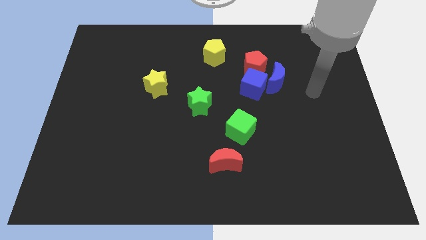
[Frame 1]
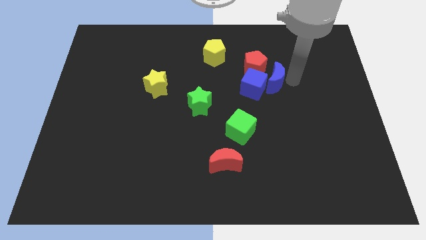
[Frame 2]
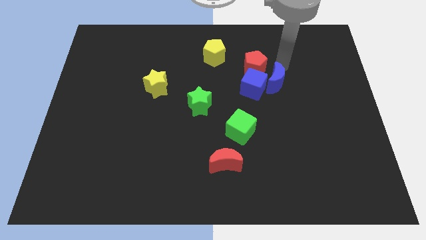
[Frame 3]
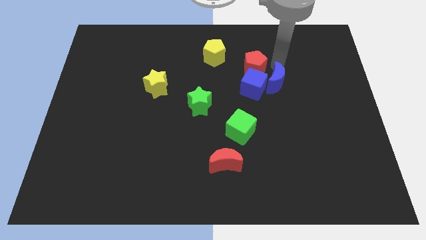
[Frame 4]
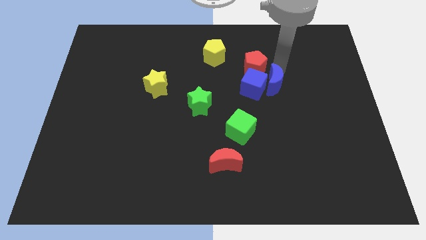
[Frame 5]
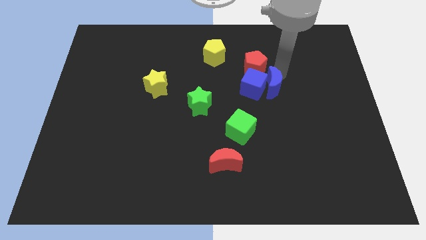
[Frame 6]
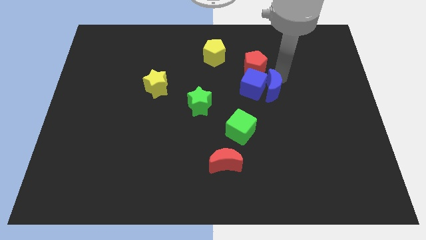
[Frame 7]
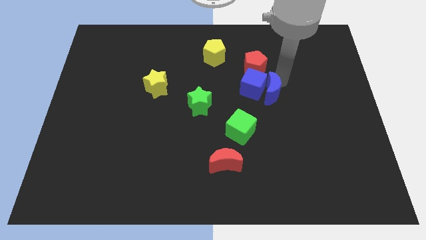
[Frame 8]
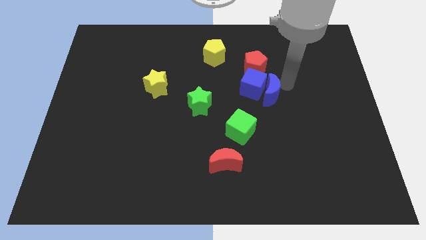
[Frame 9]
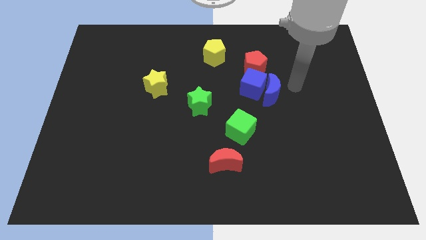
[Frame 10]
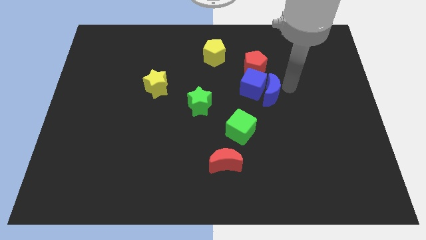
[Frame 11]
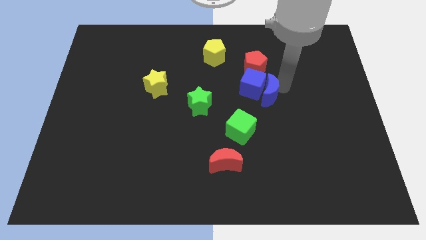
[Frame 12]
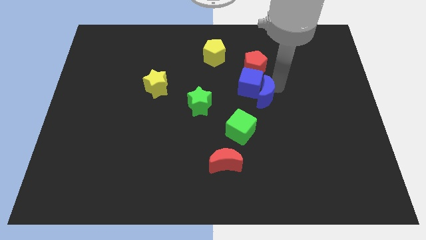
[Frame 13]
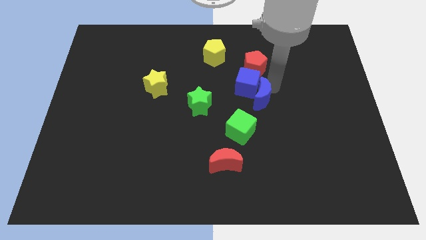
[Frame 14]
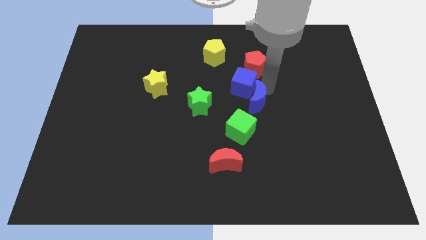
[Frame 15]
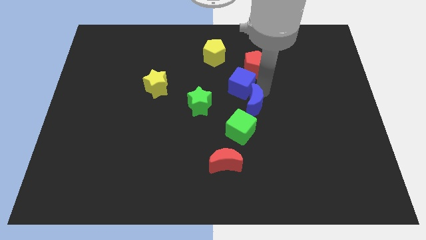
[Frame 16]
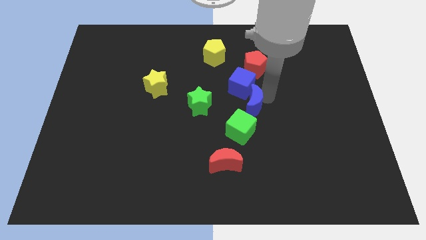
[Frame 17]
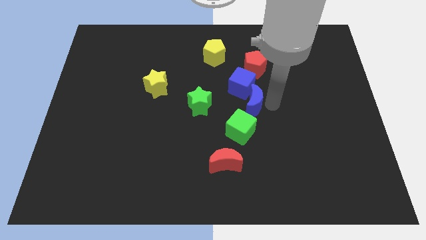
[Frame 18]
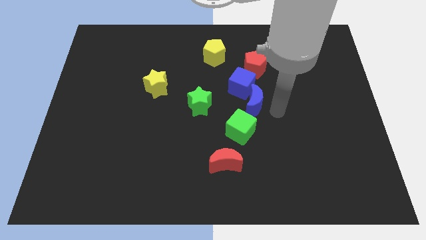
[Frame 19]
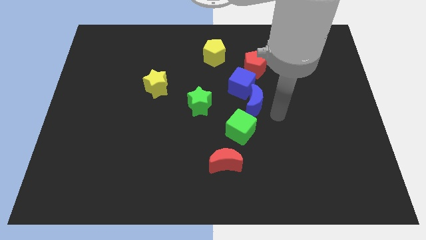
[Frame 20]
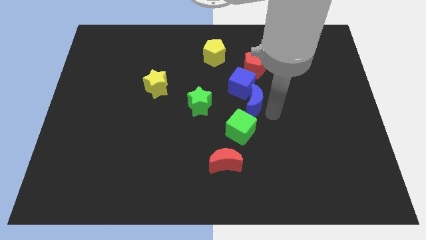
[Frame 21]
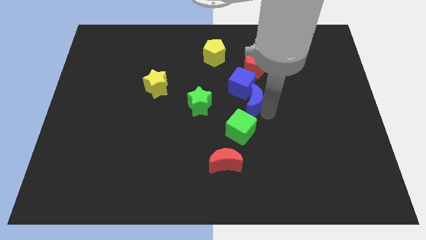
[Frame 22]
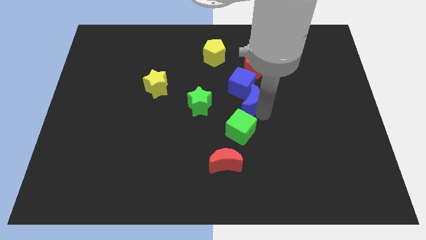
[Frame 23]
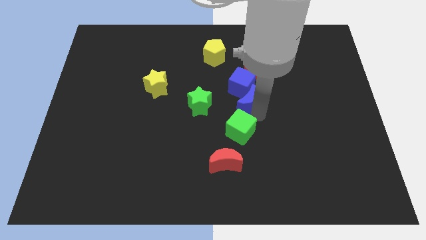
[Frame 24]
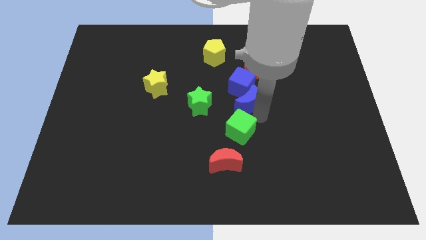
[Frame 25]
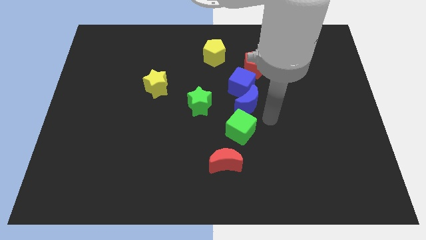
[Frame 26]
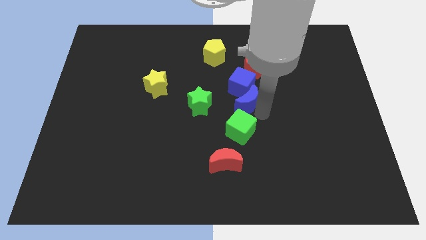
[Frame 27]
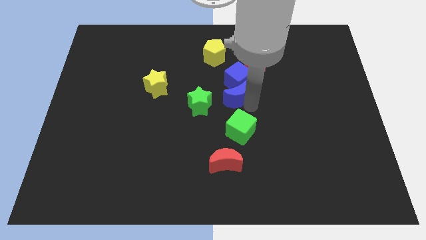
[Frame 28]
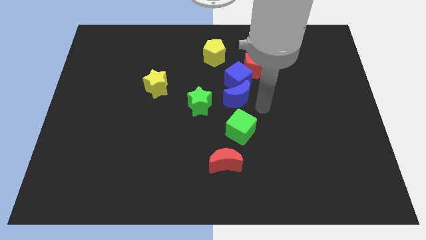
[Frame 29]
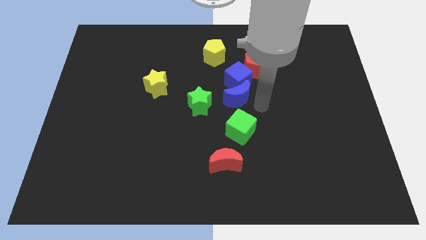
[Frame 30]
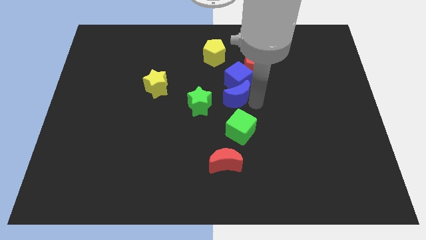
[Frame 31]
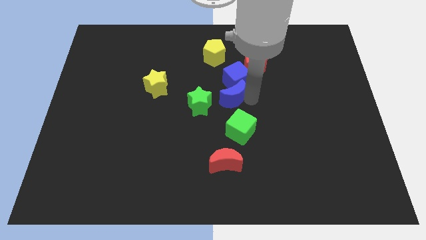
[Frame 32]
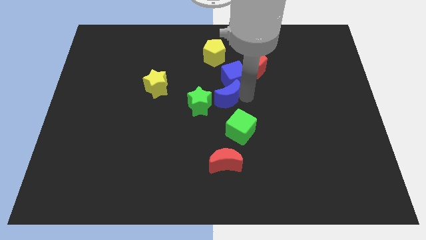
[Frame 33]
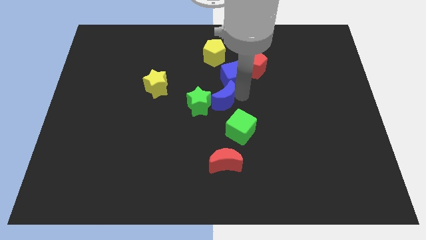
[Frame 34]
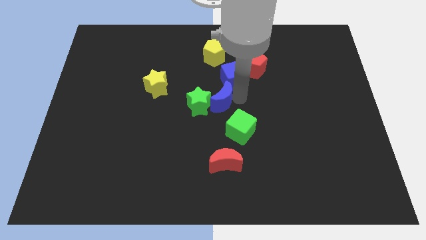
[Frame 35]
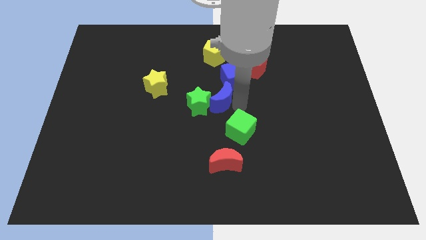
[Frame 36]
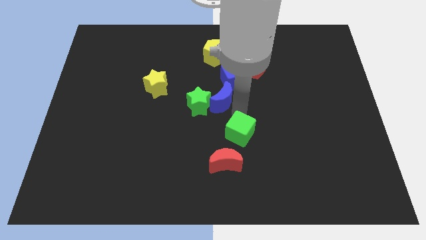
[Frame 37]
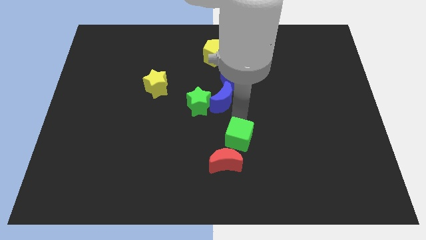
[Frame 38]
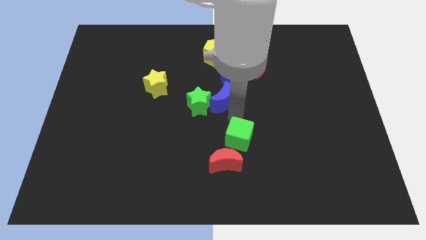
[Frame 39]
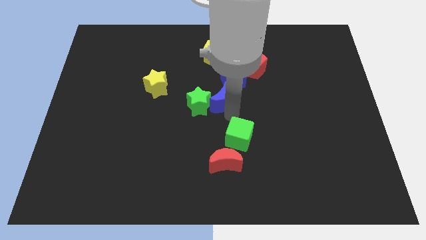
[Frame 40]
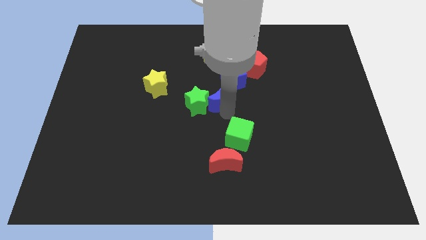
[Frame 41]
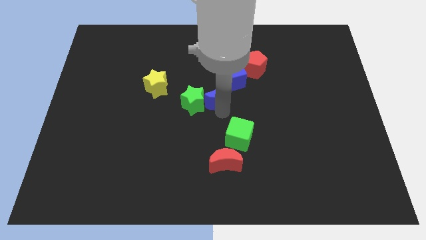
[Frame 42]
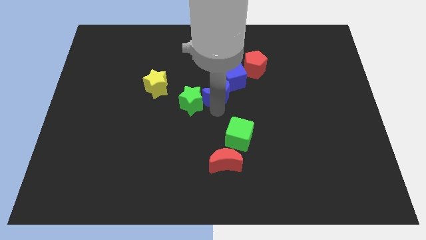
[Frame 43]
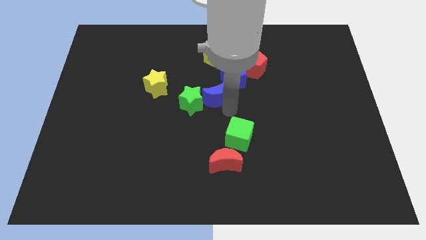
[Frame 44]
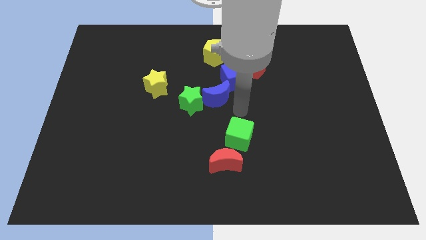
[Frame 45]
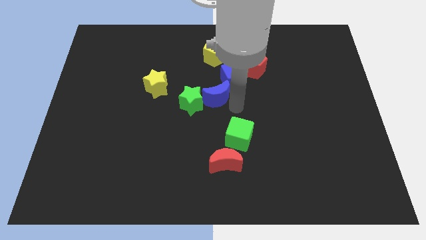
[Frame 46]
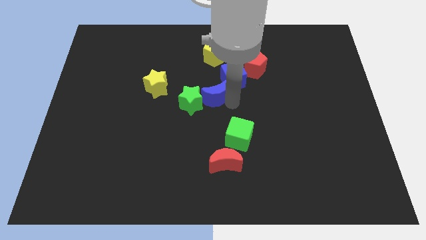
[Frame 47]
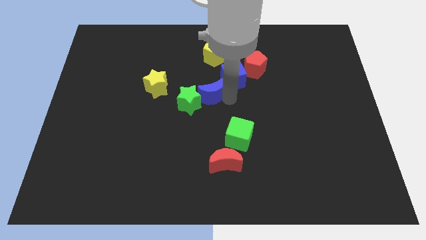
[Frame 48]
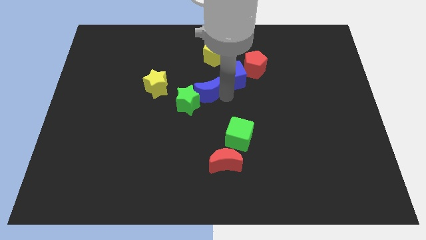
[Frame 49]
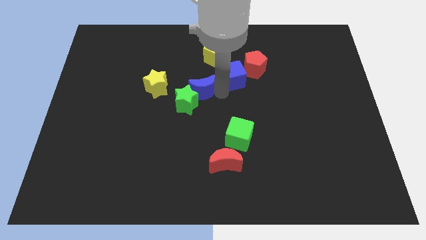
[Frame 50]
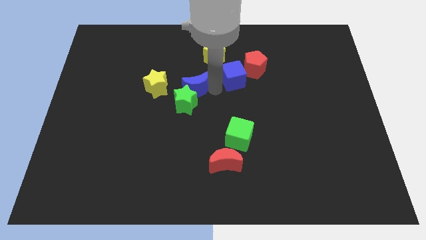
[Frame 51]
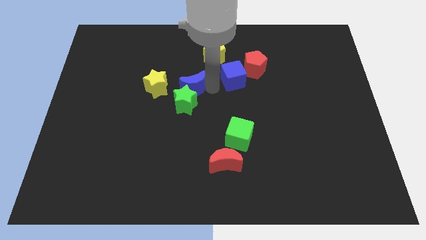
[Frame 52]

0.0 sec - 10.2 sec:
move the blue moon diagonally up and to the left of the green star
